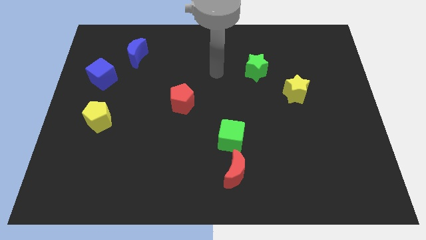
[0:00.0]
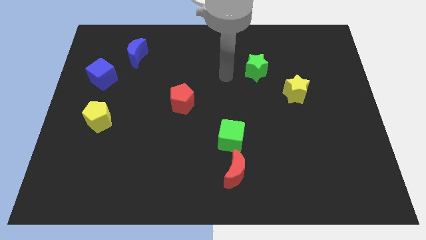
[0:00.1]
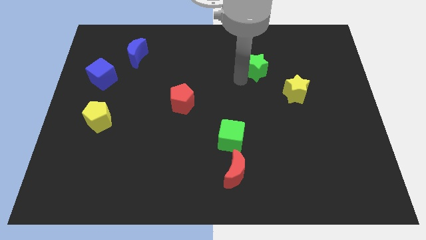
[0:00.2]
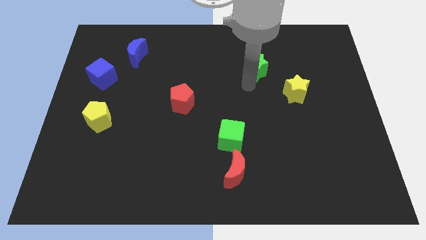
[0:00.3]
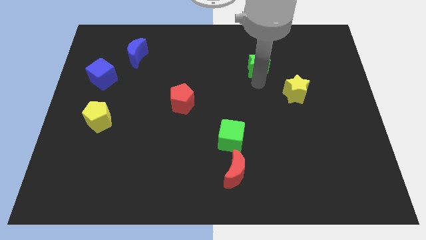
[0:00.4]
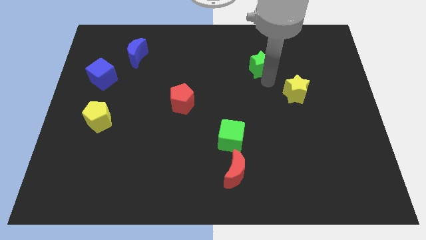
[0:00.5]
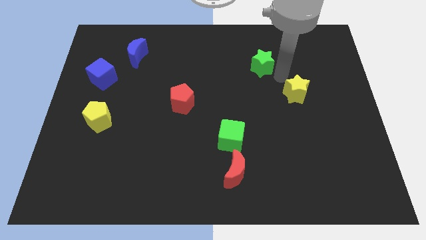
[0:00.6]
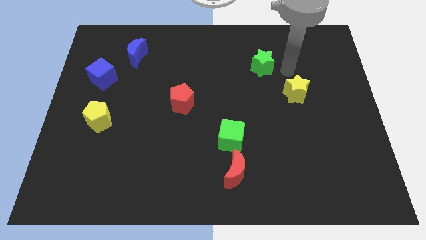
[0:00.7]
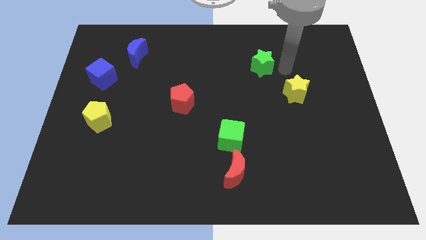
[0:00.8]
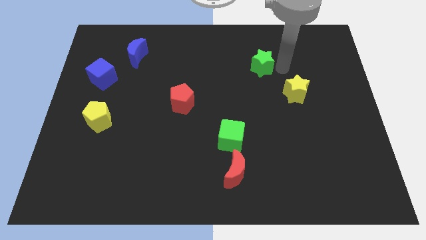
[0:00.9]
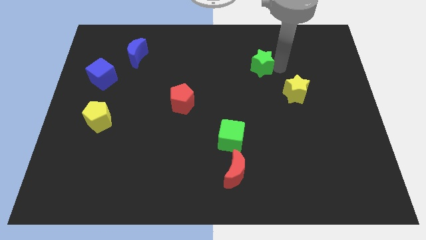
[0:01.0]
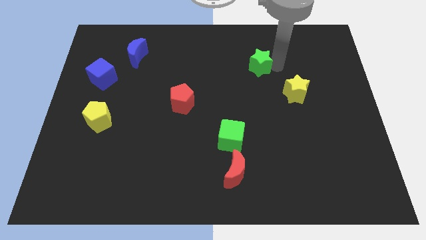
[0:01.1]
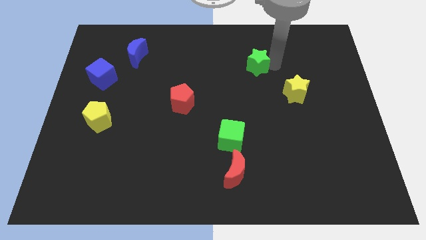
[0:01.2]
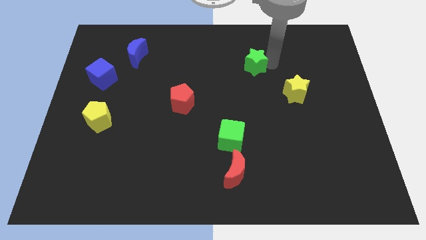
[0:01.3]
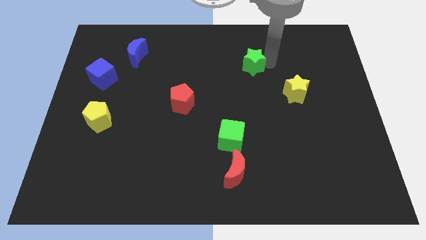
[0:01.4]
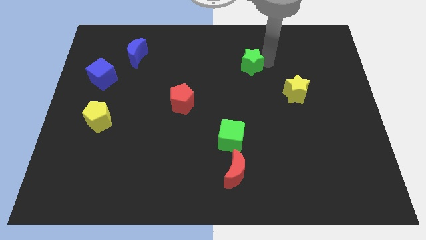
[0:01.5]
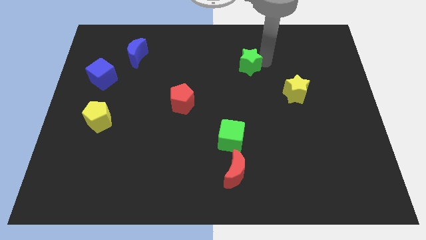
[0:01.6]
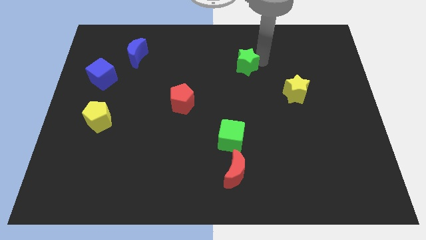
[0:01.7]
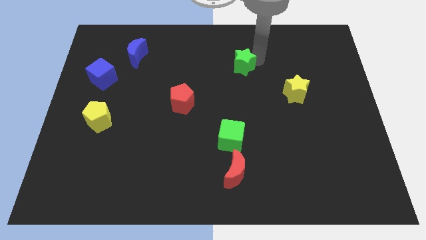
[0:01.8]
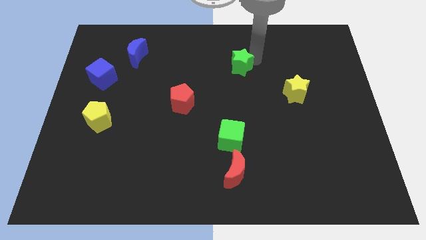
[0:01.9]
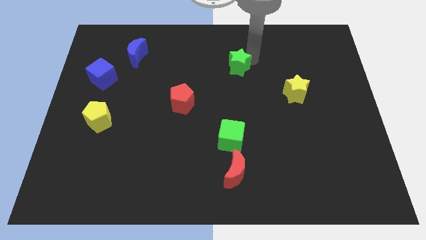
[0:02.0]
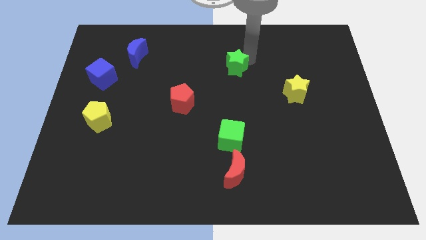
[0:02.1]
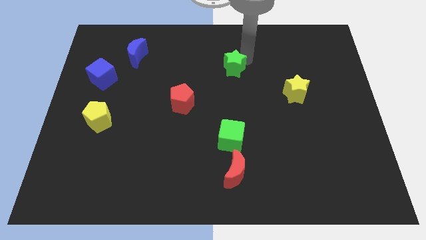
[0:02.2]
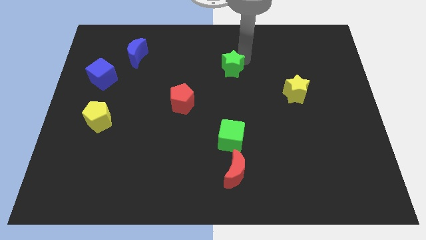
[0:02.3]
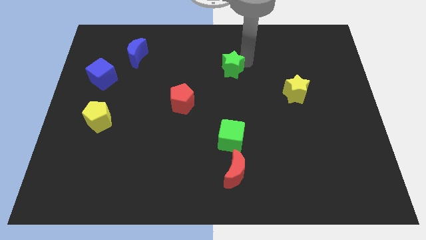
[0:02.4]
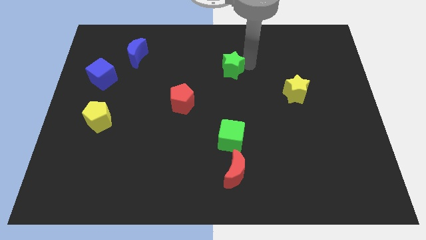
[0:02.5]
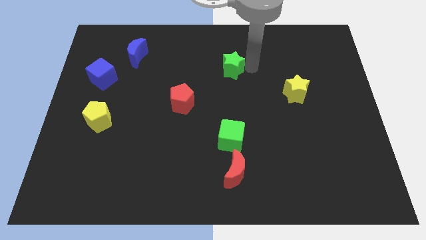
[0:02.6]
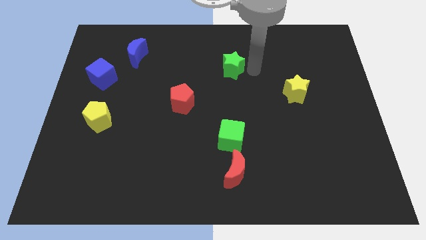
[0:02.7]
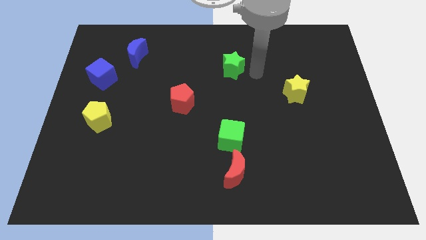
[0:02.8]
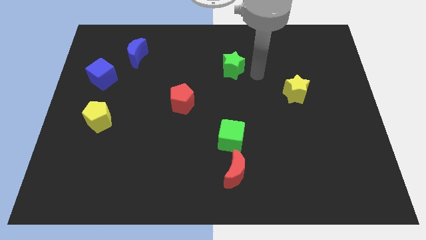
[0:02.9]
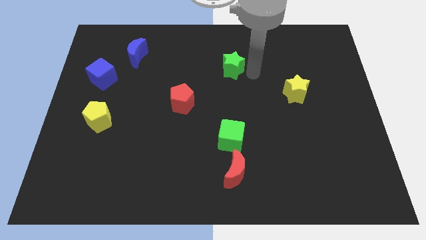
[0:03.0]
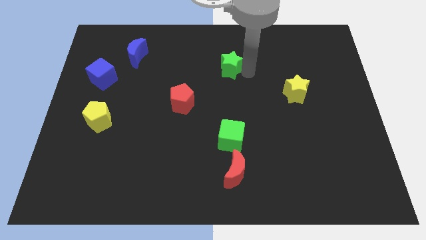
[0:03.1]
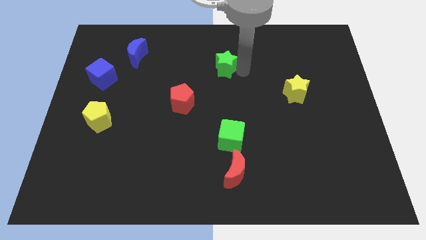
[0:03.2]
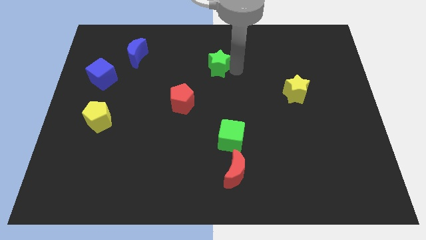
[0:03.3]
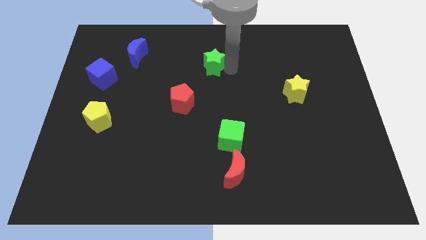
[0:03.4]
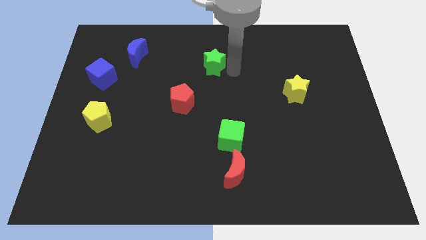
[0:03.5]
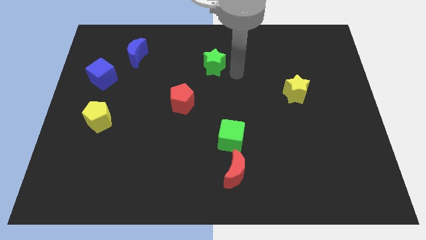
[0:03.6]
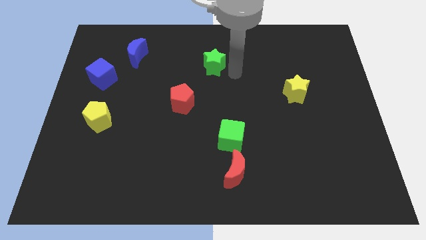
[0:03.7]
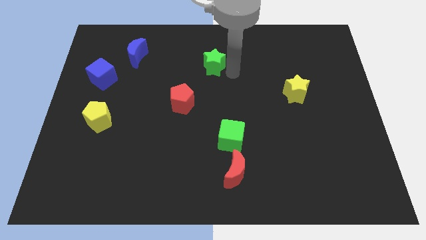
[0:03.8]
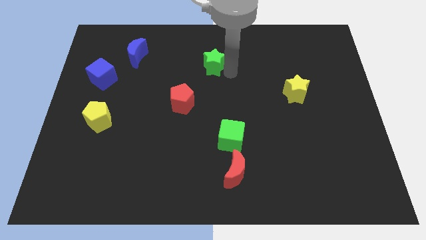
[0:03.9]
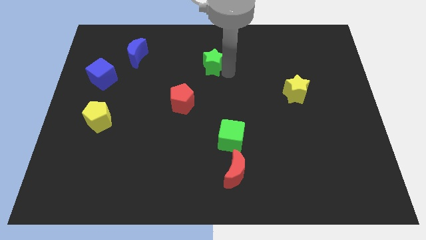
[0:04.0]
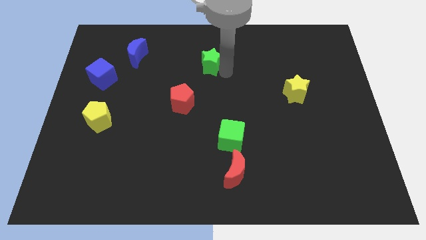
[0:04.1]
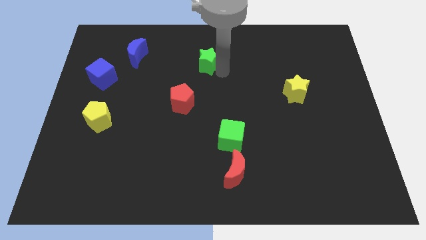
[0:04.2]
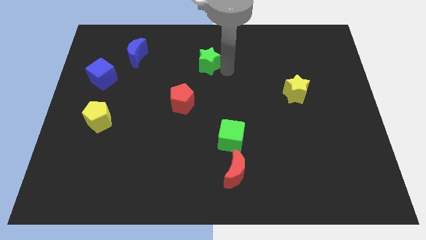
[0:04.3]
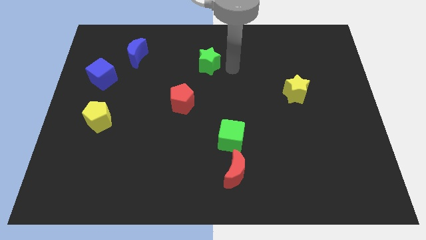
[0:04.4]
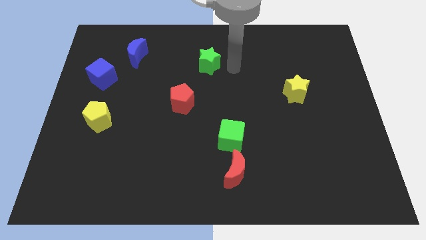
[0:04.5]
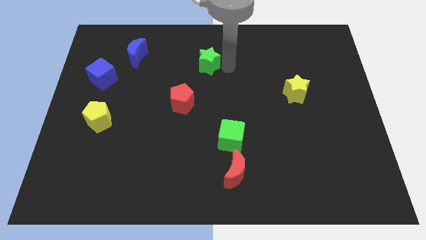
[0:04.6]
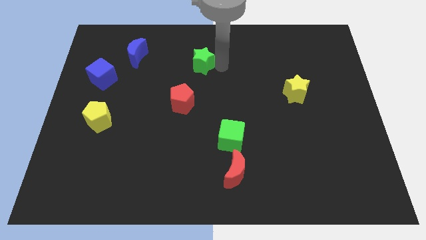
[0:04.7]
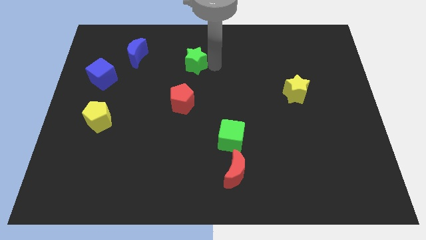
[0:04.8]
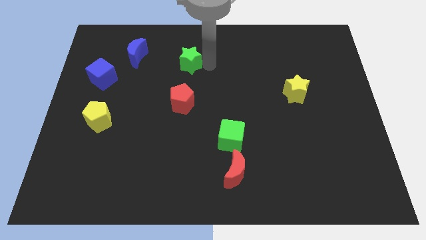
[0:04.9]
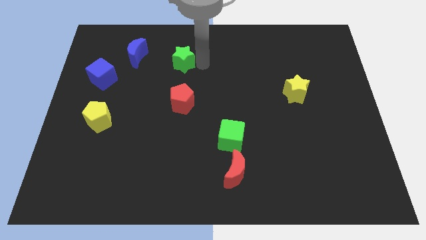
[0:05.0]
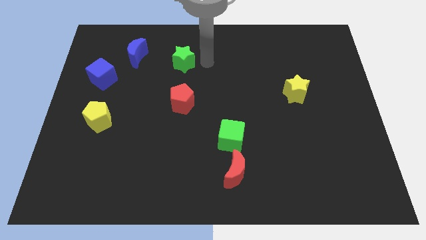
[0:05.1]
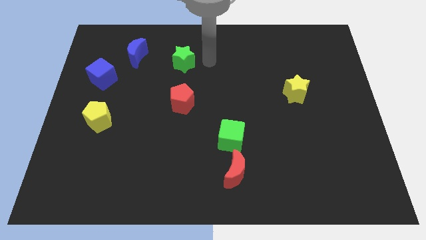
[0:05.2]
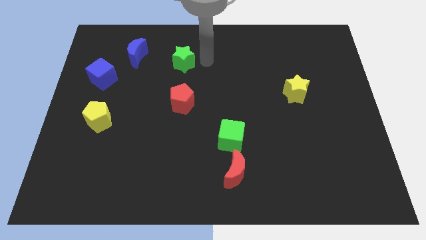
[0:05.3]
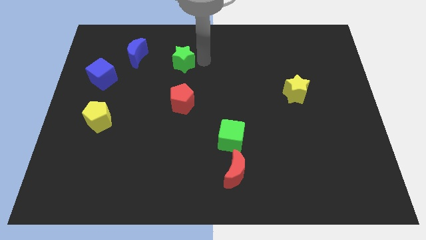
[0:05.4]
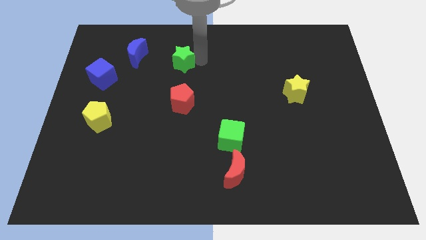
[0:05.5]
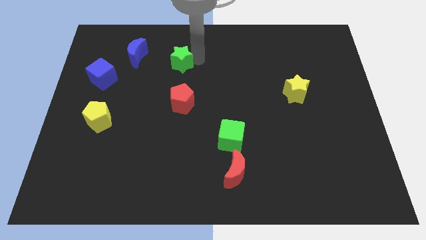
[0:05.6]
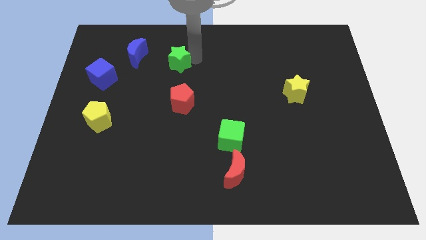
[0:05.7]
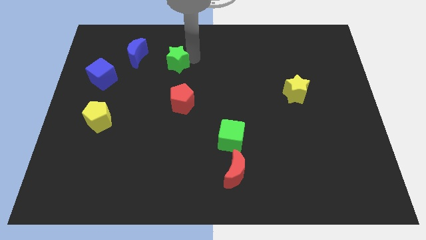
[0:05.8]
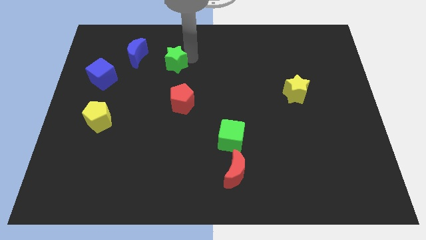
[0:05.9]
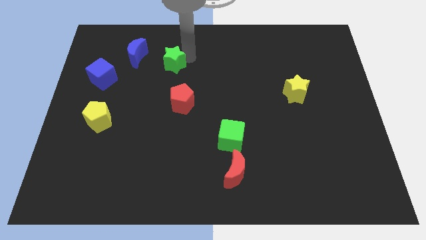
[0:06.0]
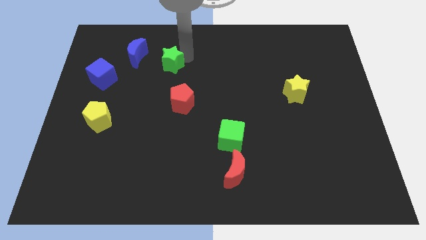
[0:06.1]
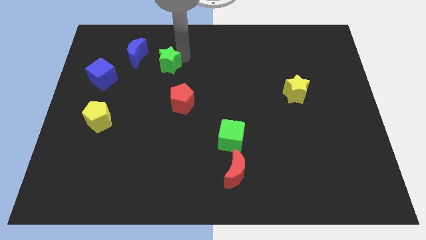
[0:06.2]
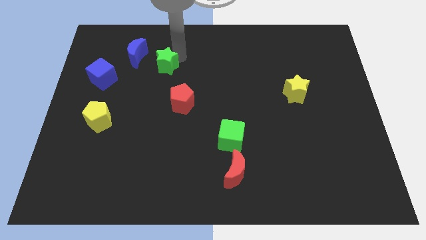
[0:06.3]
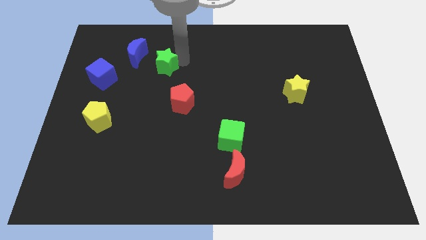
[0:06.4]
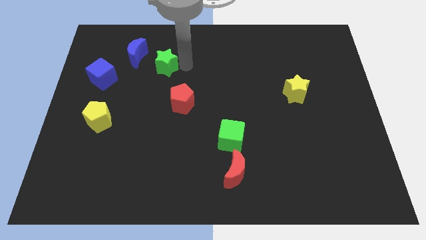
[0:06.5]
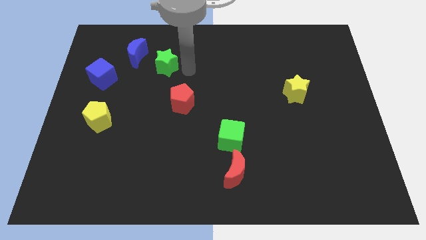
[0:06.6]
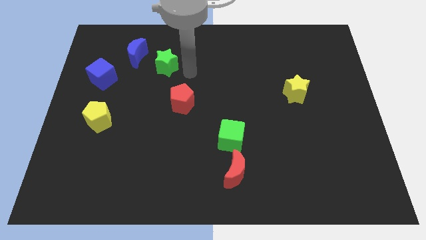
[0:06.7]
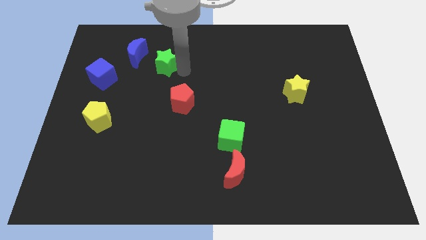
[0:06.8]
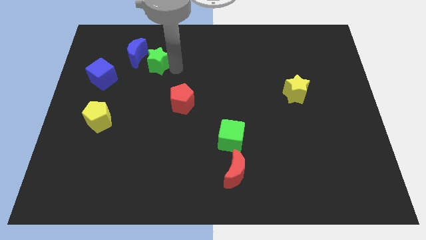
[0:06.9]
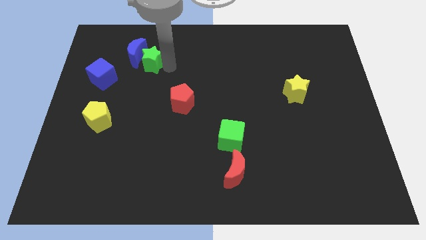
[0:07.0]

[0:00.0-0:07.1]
put the green star to the blue moon
